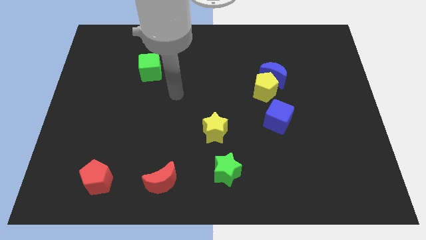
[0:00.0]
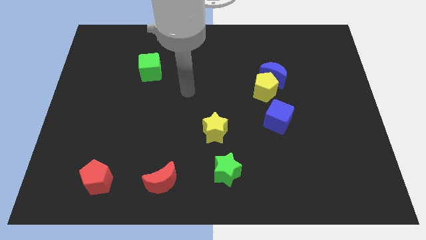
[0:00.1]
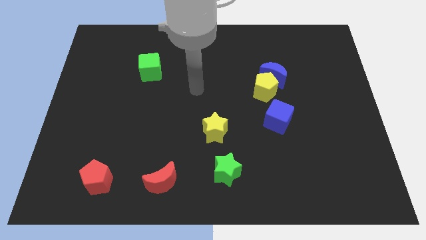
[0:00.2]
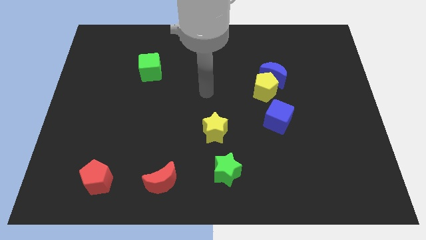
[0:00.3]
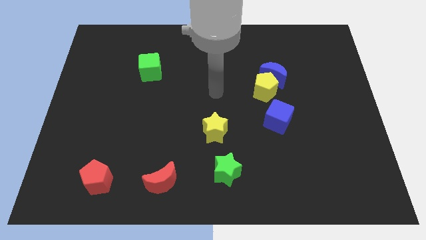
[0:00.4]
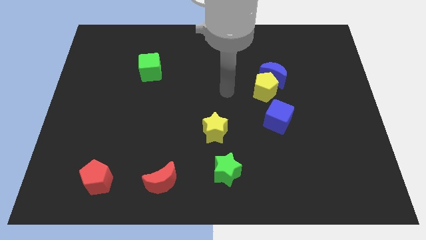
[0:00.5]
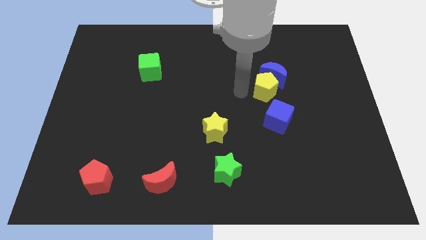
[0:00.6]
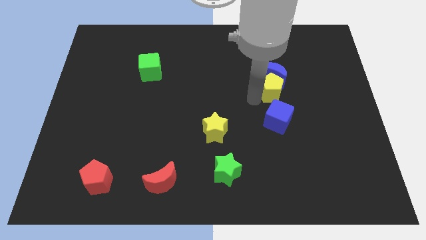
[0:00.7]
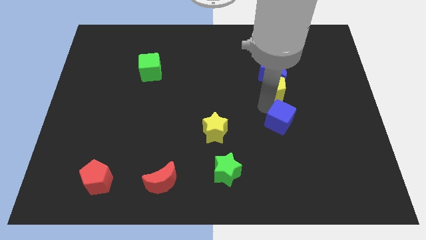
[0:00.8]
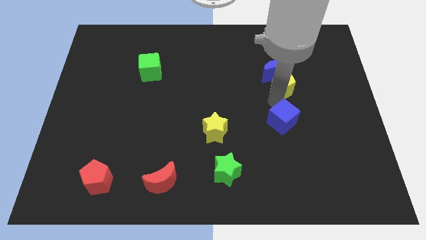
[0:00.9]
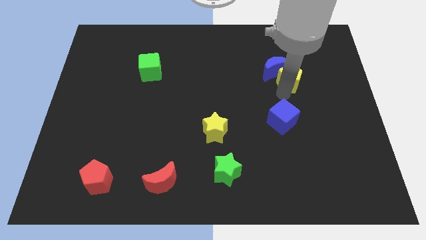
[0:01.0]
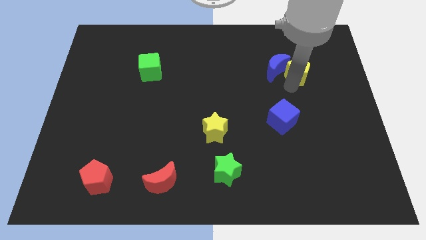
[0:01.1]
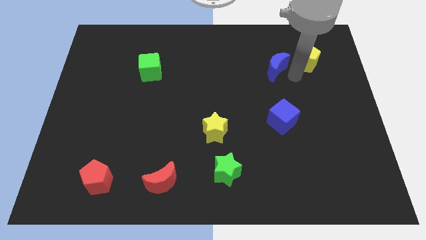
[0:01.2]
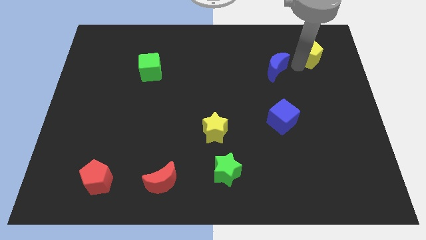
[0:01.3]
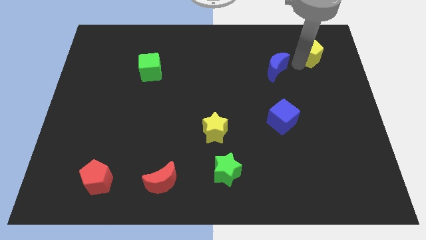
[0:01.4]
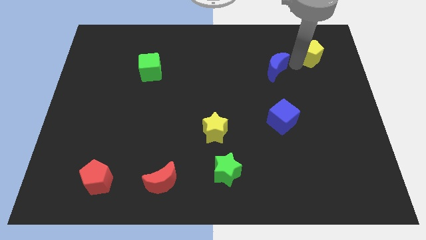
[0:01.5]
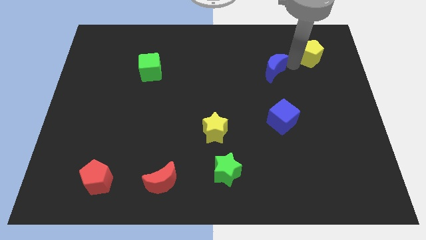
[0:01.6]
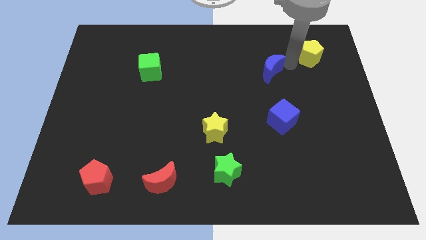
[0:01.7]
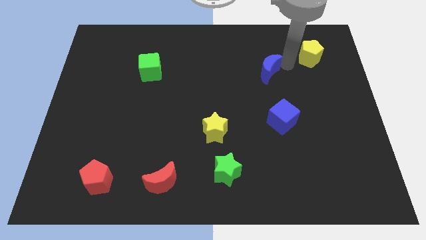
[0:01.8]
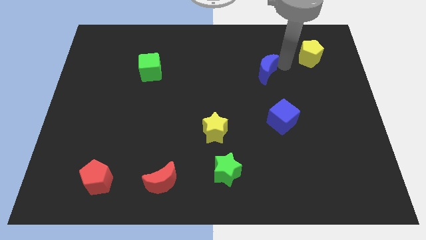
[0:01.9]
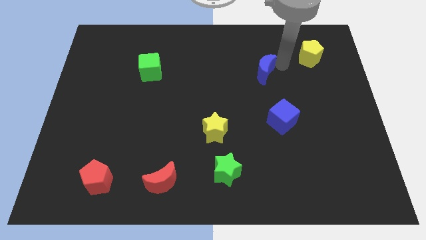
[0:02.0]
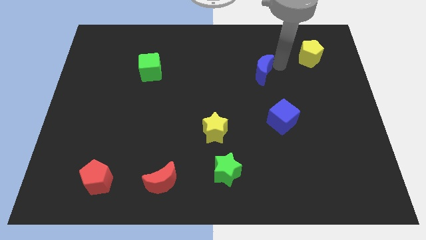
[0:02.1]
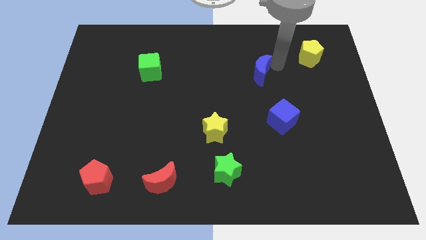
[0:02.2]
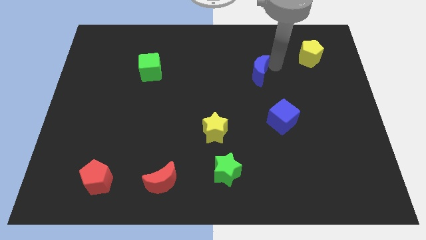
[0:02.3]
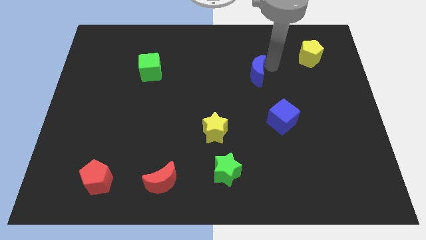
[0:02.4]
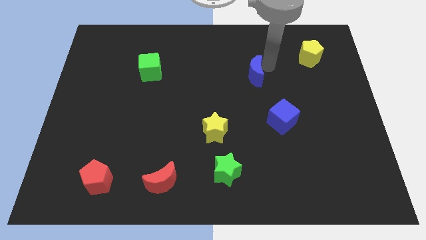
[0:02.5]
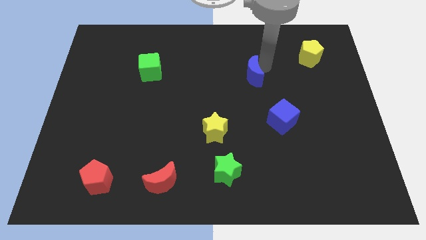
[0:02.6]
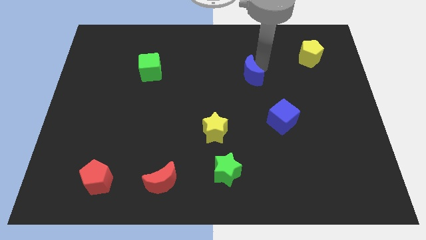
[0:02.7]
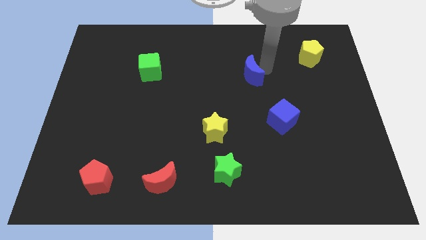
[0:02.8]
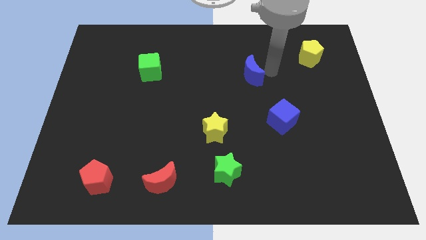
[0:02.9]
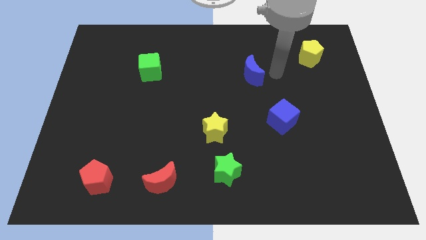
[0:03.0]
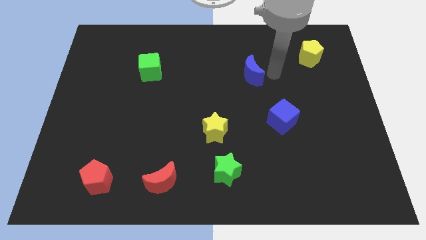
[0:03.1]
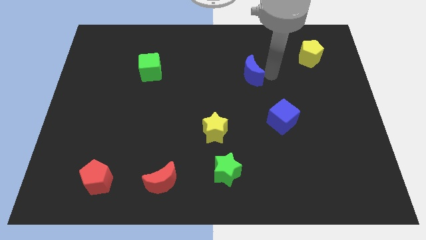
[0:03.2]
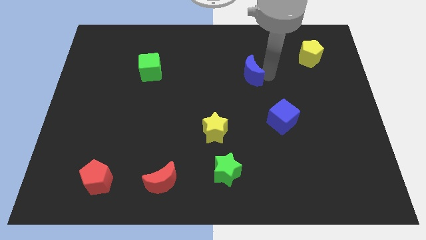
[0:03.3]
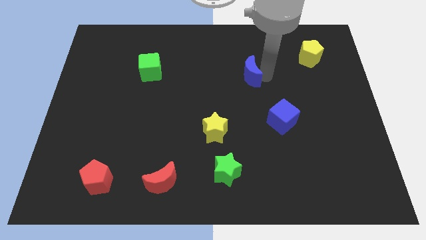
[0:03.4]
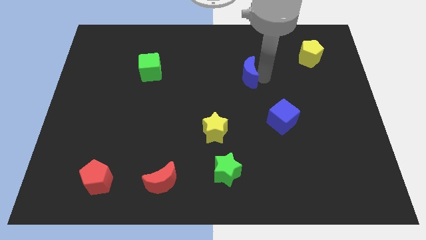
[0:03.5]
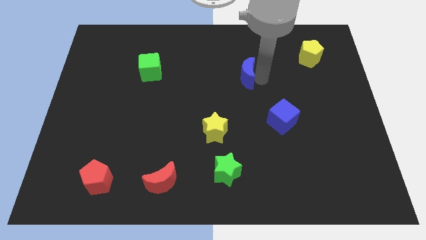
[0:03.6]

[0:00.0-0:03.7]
slightly push the blue moon to the left

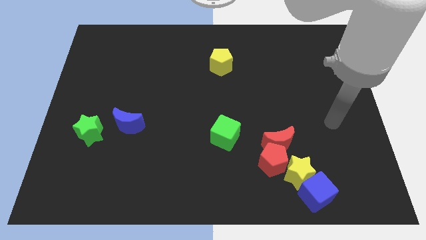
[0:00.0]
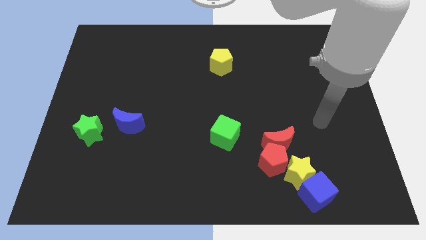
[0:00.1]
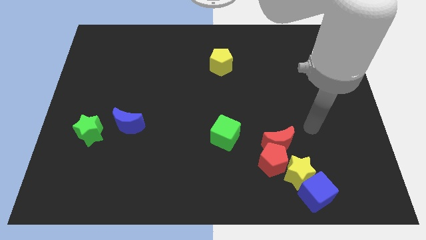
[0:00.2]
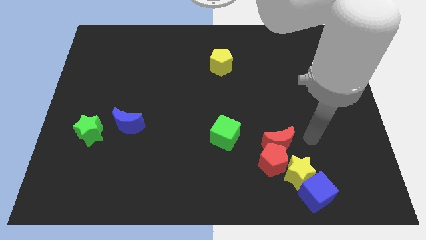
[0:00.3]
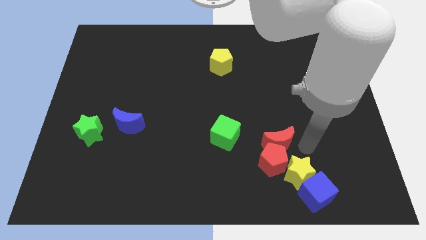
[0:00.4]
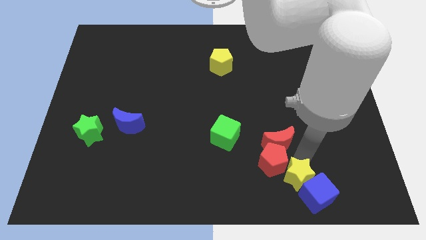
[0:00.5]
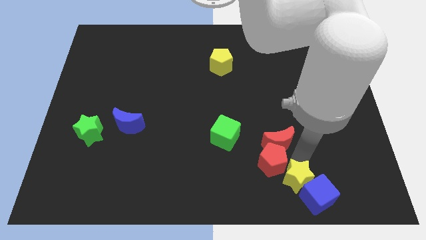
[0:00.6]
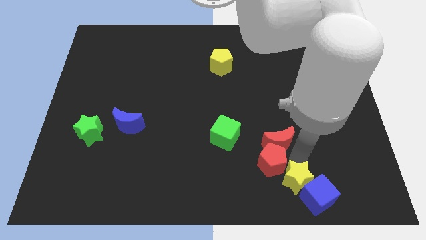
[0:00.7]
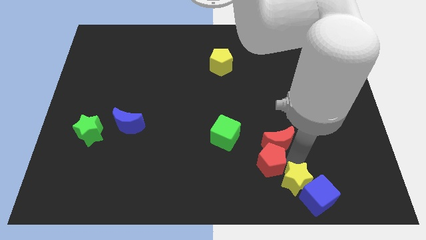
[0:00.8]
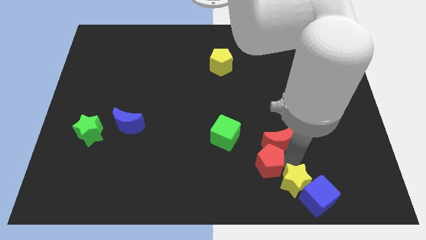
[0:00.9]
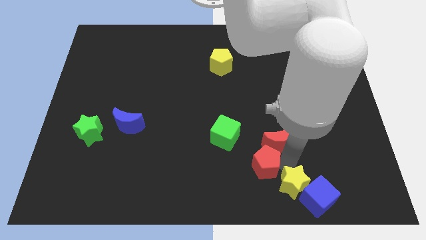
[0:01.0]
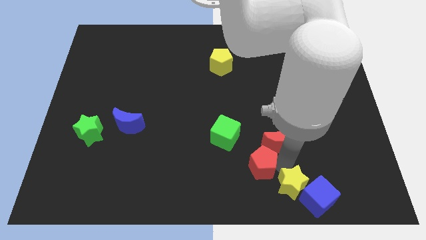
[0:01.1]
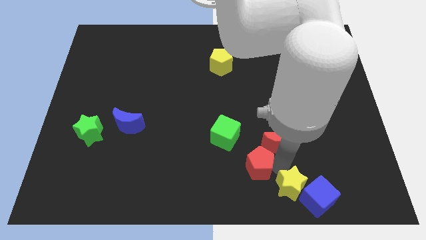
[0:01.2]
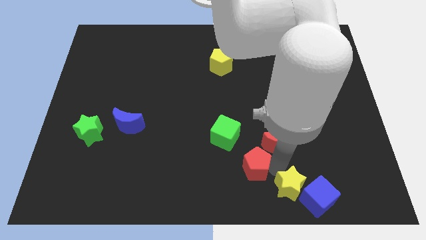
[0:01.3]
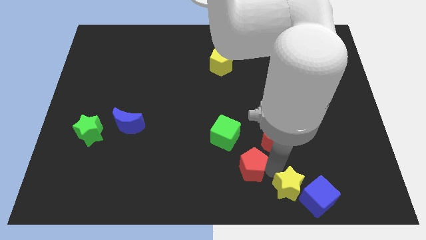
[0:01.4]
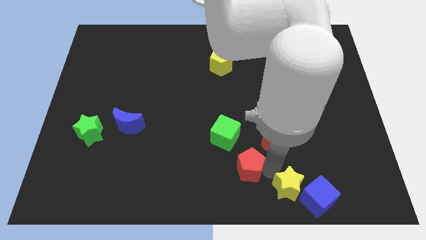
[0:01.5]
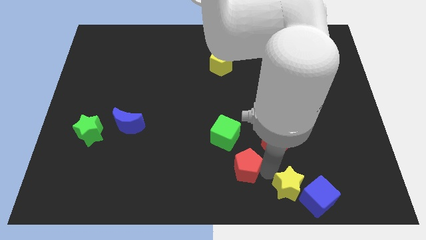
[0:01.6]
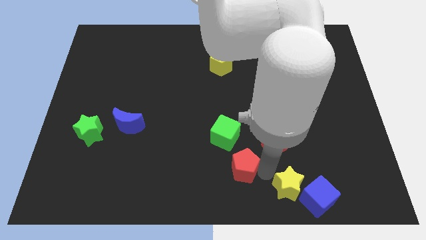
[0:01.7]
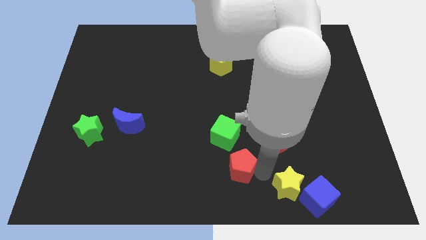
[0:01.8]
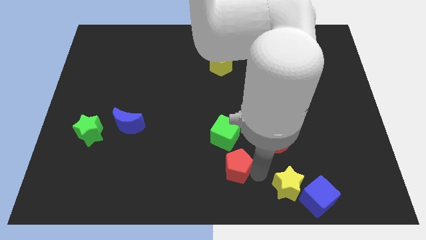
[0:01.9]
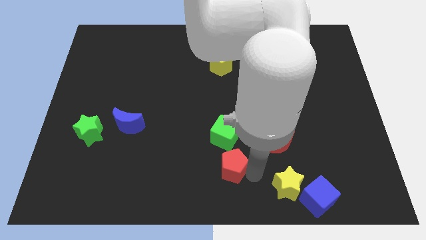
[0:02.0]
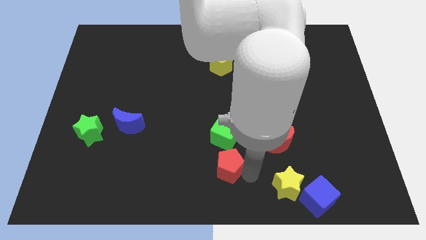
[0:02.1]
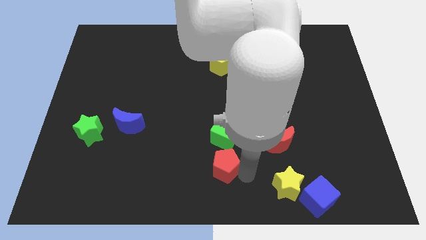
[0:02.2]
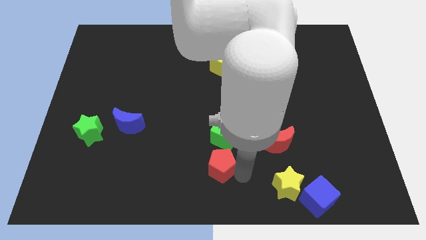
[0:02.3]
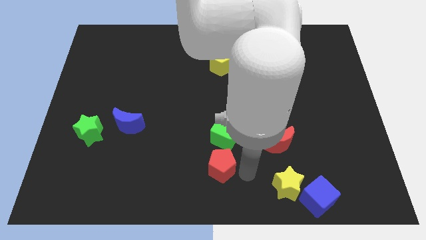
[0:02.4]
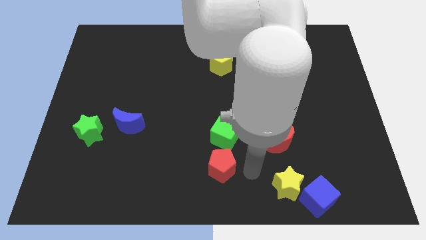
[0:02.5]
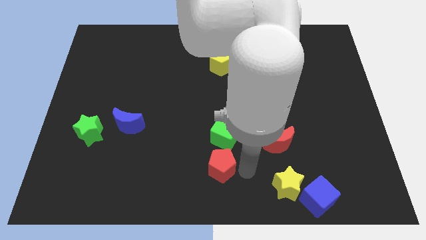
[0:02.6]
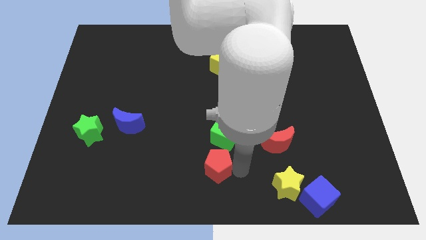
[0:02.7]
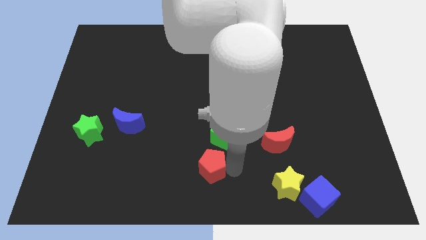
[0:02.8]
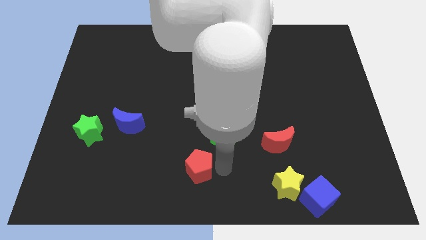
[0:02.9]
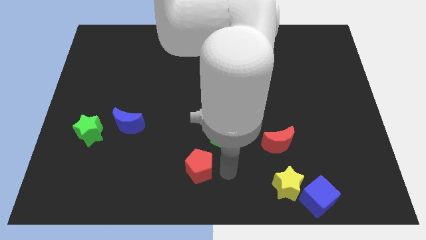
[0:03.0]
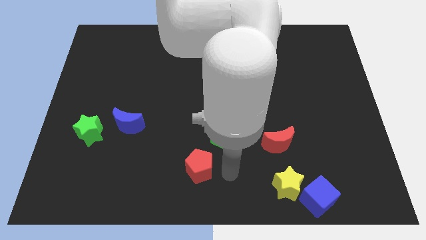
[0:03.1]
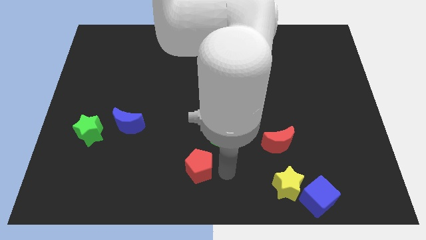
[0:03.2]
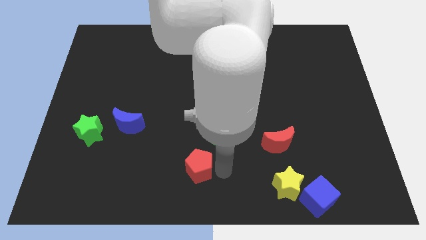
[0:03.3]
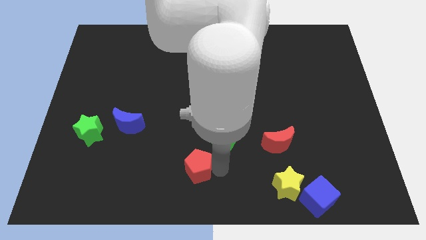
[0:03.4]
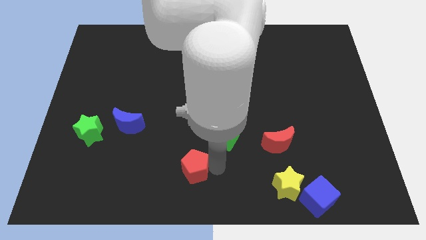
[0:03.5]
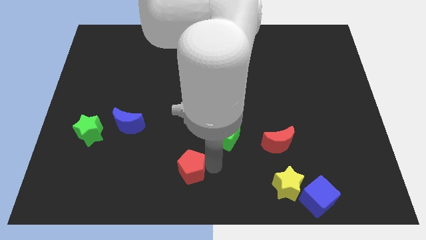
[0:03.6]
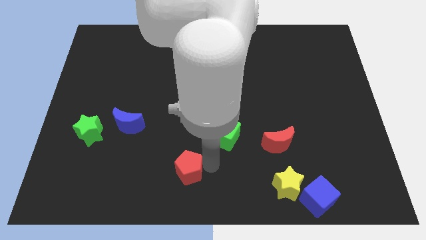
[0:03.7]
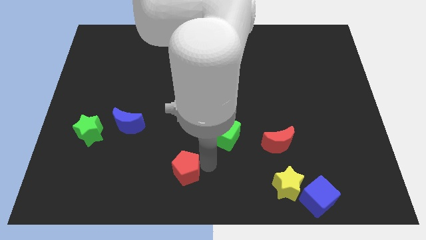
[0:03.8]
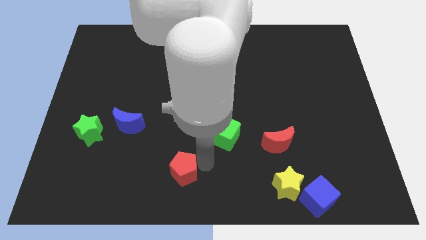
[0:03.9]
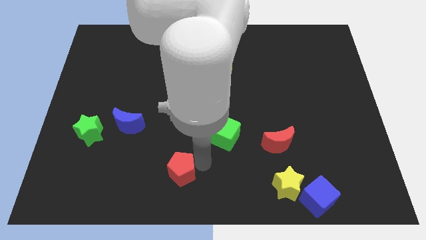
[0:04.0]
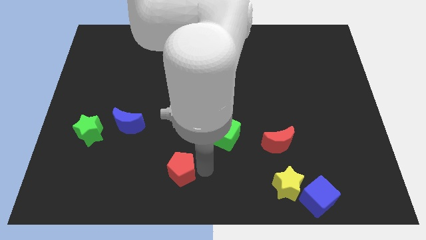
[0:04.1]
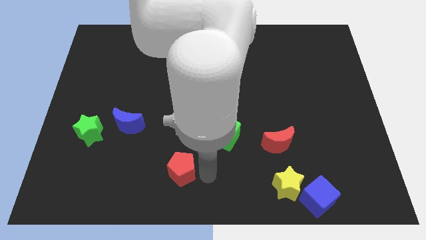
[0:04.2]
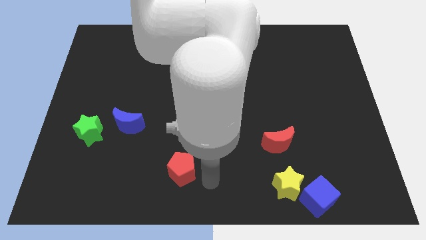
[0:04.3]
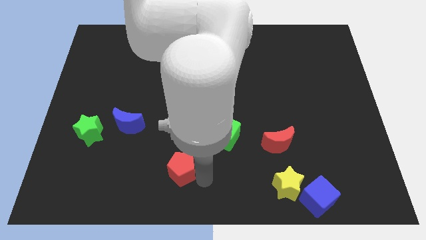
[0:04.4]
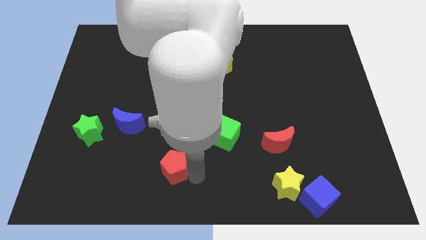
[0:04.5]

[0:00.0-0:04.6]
push the red pentagon left
